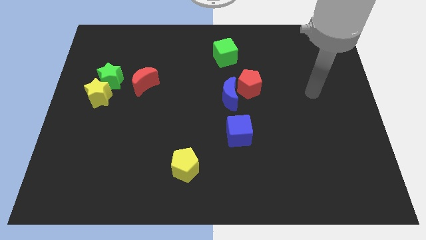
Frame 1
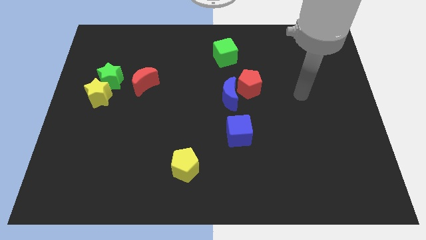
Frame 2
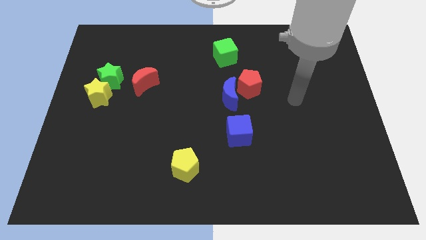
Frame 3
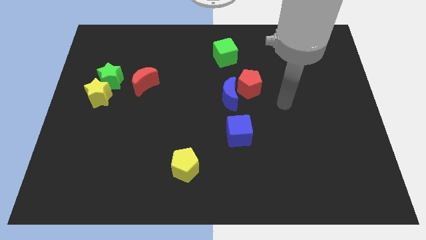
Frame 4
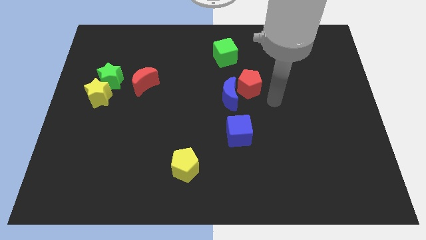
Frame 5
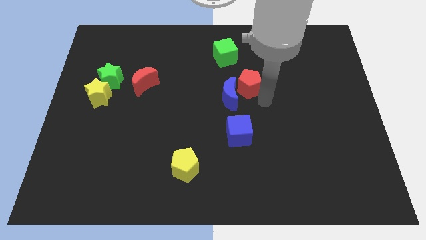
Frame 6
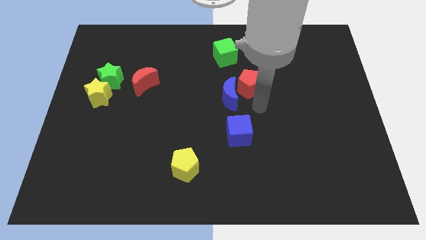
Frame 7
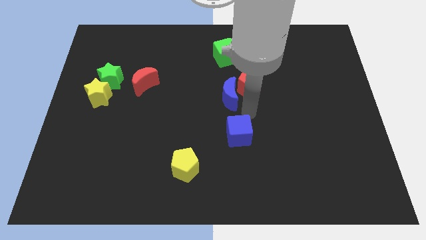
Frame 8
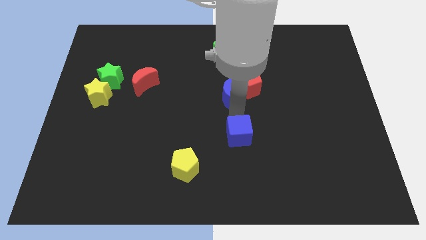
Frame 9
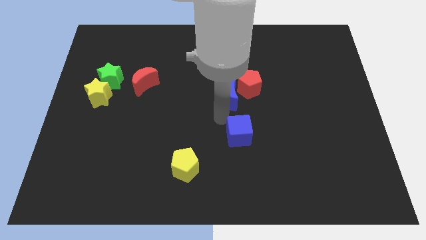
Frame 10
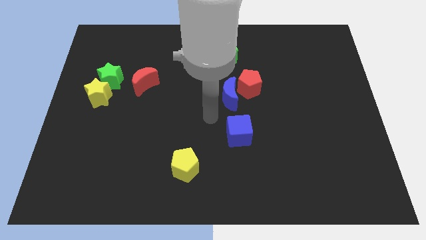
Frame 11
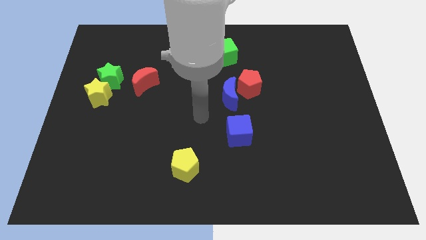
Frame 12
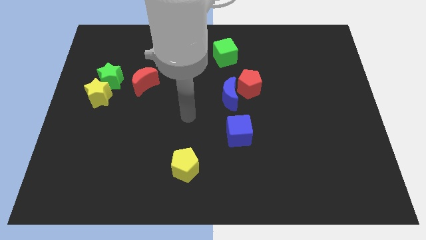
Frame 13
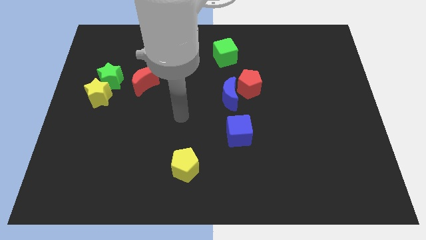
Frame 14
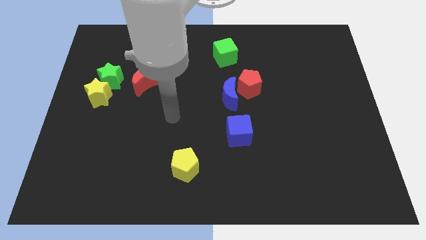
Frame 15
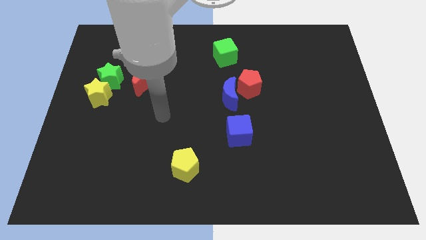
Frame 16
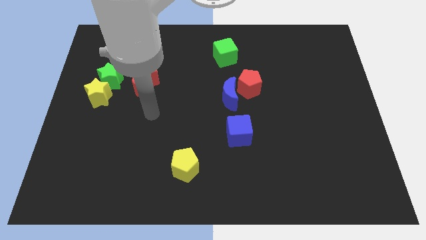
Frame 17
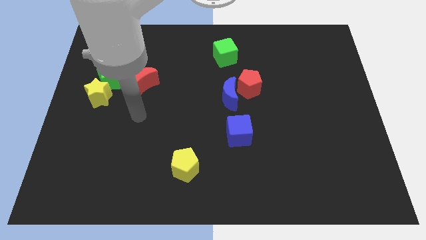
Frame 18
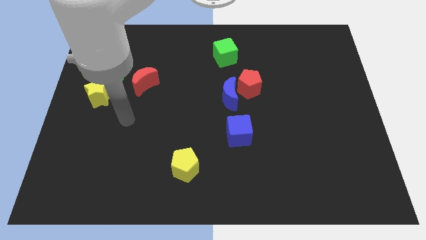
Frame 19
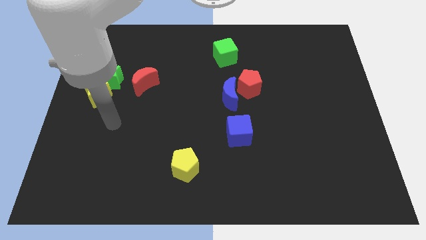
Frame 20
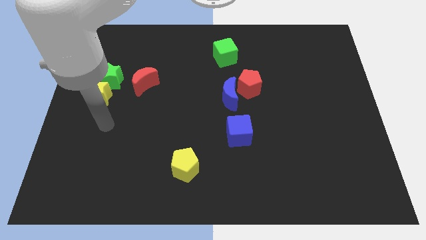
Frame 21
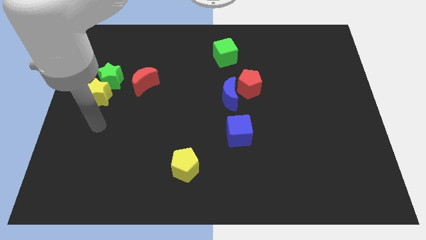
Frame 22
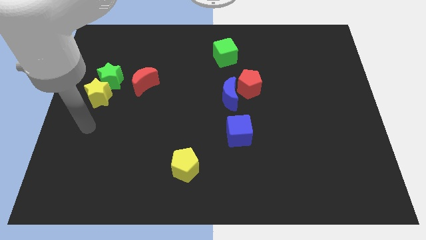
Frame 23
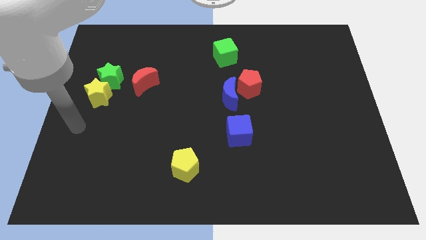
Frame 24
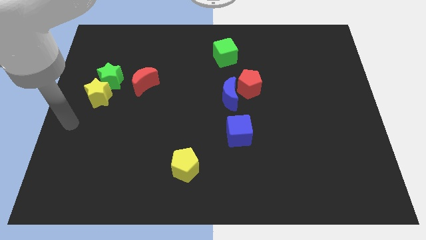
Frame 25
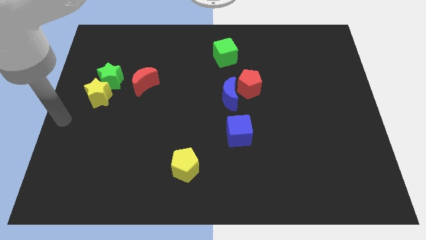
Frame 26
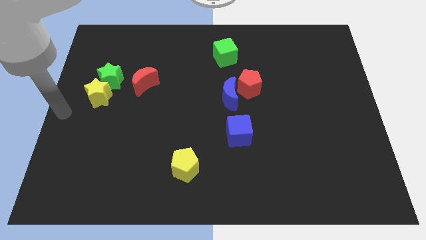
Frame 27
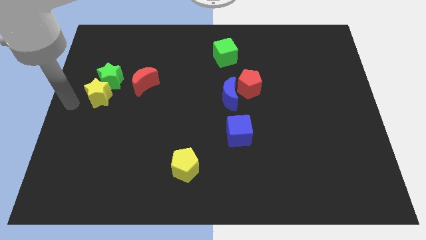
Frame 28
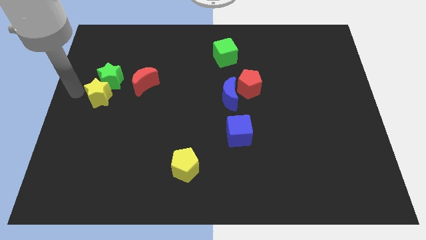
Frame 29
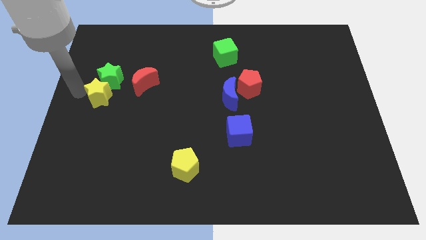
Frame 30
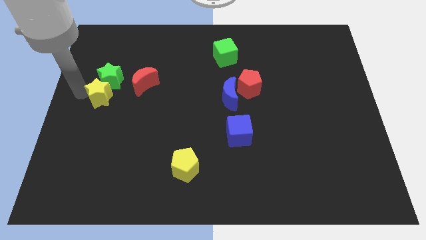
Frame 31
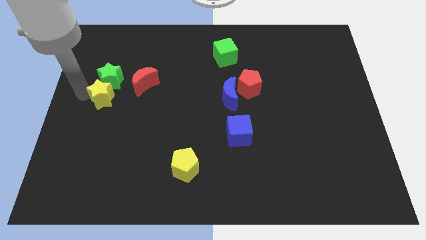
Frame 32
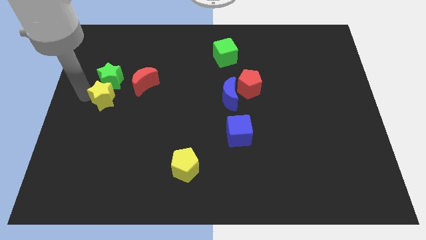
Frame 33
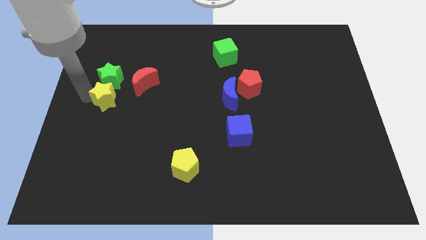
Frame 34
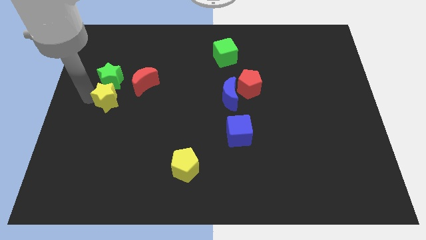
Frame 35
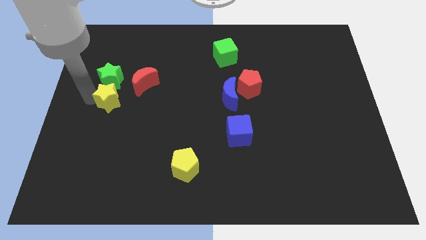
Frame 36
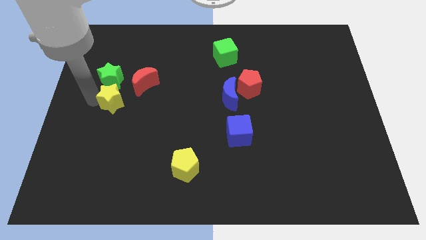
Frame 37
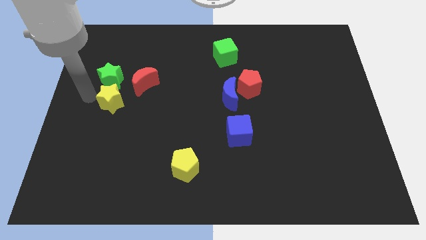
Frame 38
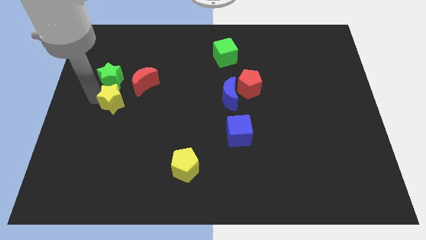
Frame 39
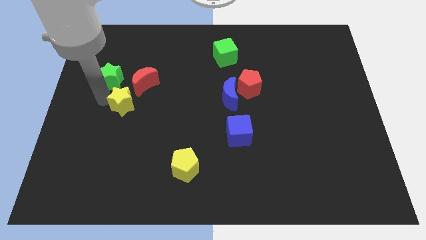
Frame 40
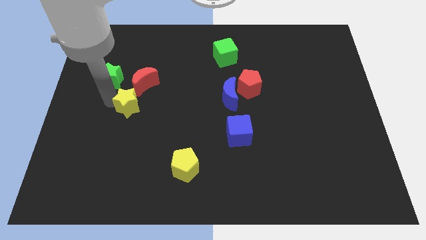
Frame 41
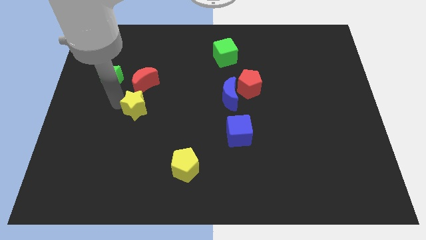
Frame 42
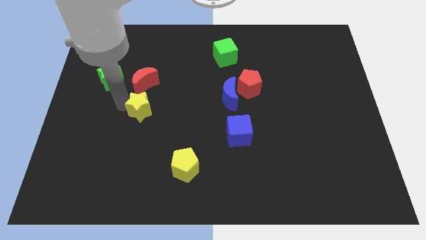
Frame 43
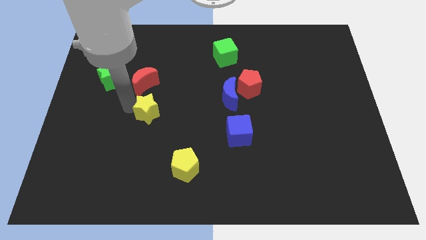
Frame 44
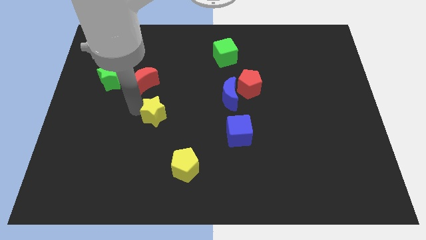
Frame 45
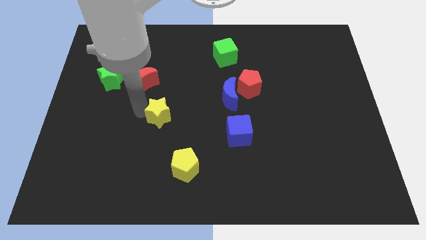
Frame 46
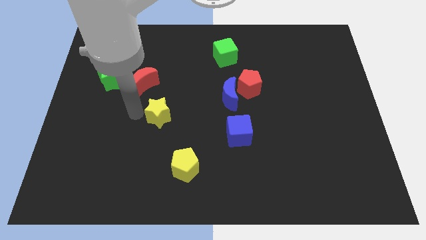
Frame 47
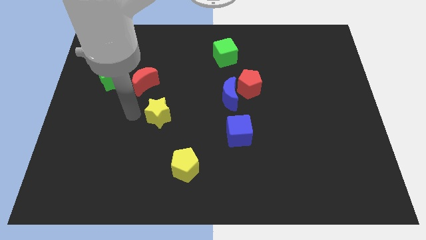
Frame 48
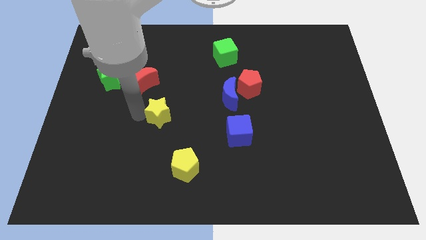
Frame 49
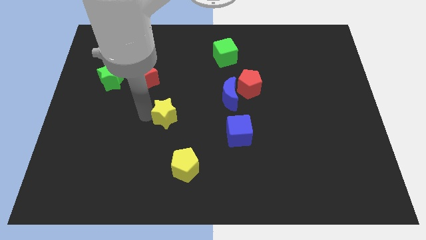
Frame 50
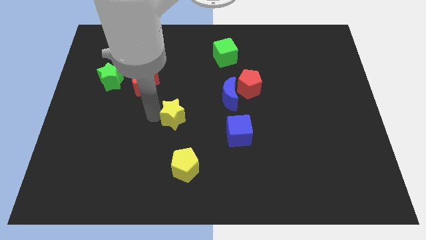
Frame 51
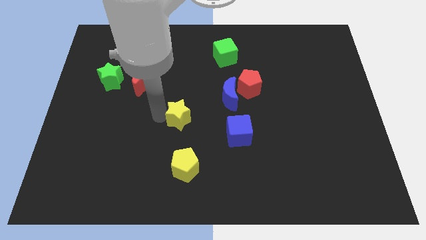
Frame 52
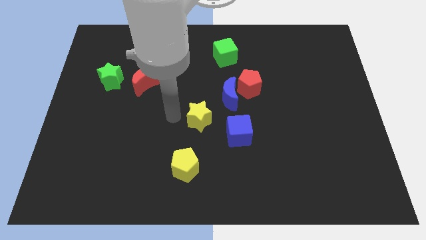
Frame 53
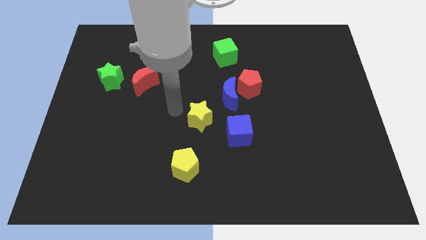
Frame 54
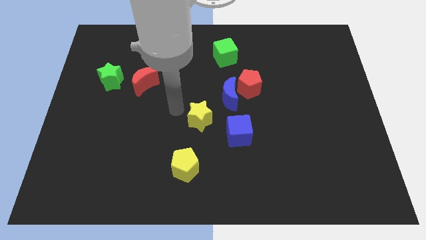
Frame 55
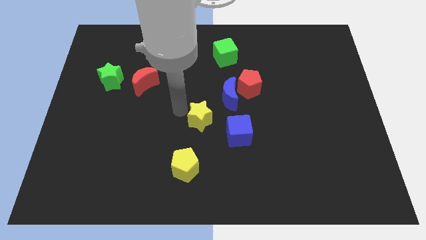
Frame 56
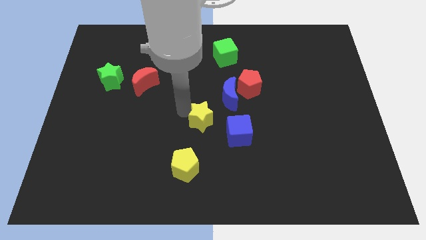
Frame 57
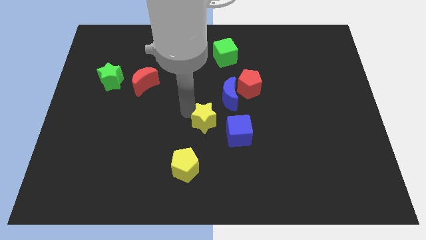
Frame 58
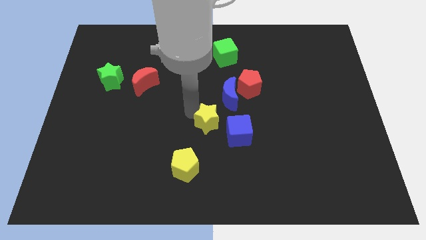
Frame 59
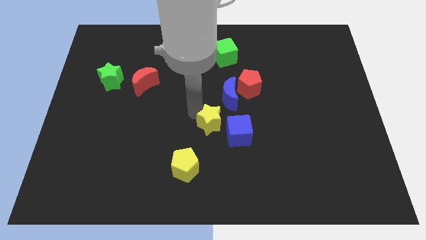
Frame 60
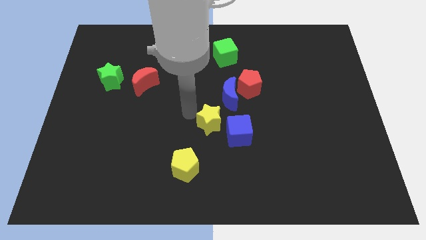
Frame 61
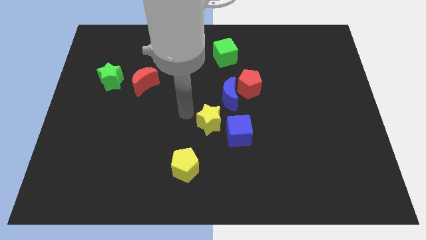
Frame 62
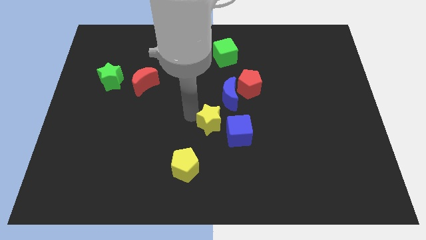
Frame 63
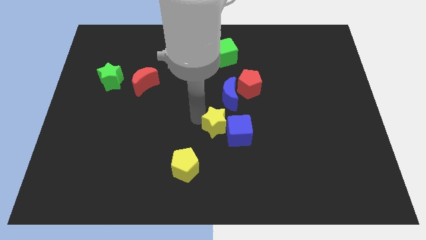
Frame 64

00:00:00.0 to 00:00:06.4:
move the yellow star to the blue cube

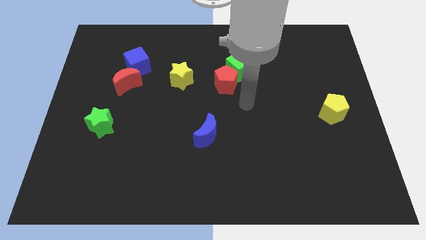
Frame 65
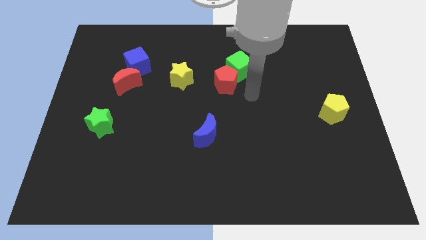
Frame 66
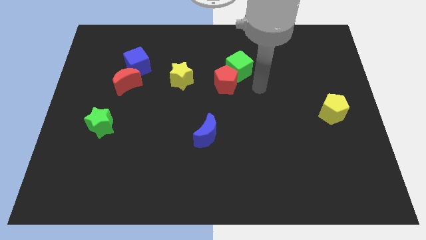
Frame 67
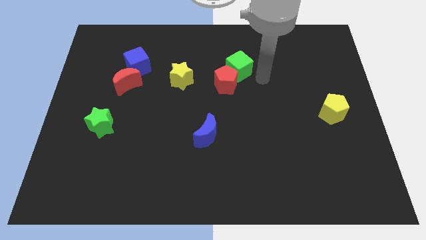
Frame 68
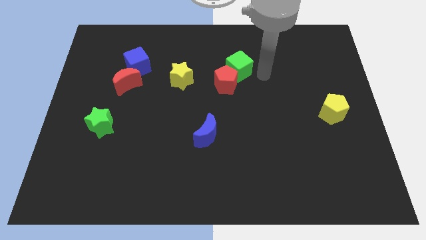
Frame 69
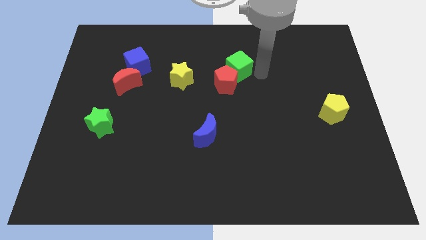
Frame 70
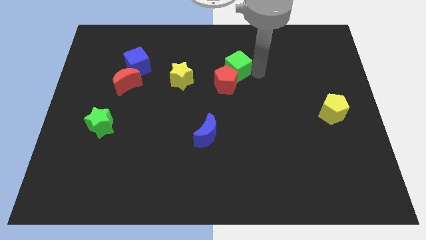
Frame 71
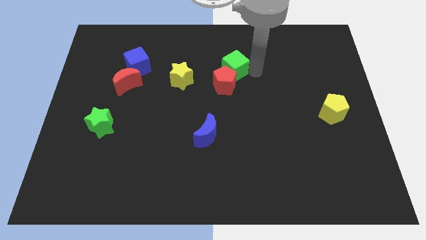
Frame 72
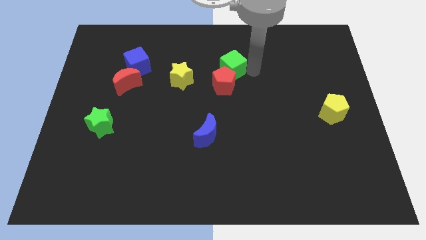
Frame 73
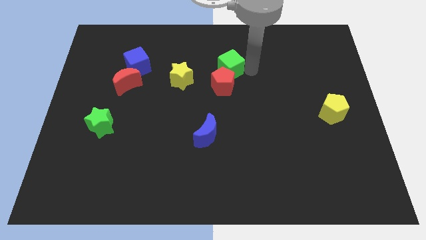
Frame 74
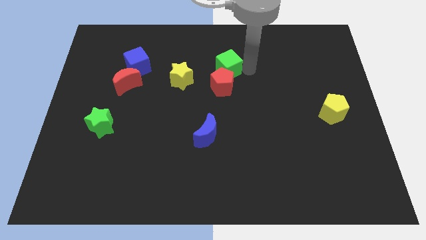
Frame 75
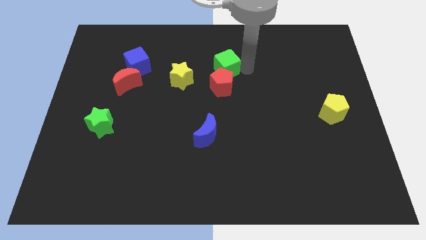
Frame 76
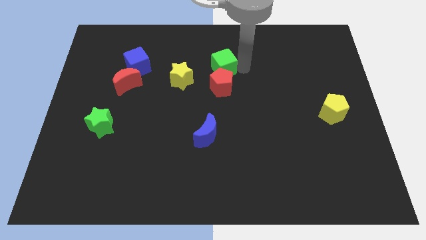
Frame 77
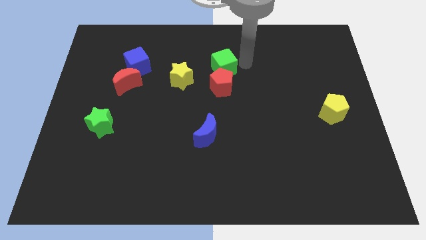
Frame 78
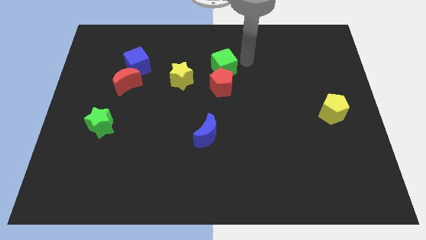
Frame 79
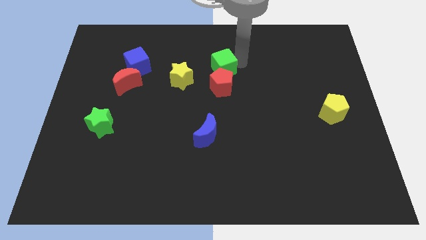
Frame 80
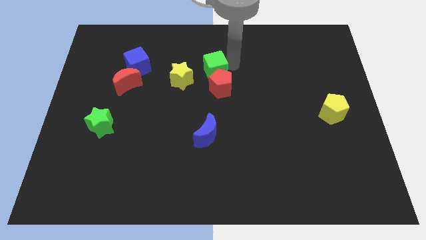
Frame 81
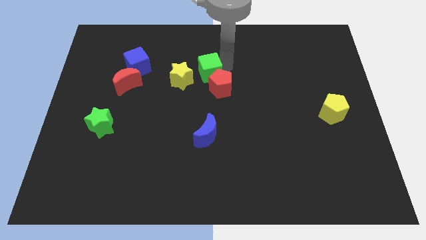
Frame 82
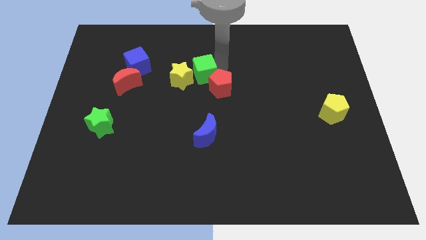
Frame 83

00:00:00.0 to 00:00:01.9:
slide the green cube next to the yellow star

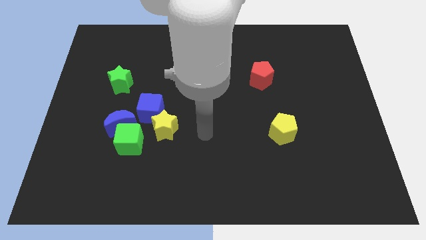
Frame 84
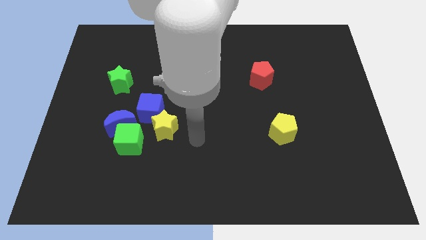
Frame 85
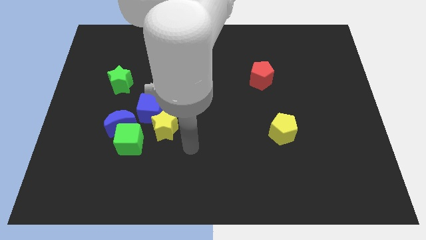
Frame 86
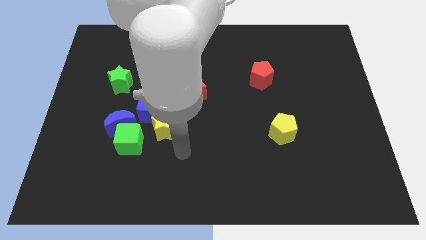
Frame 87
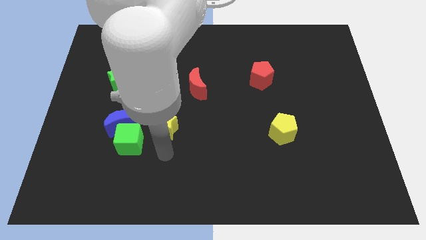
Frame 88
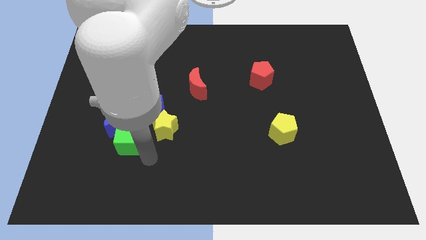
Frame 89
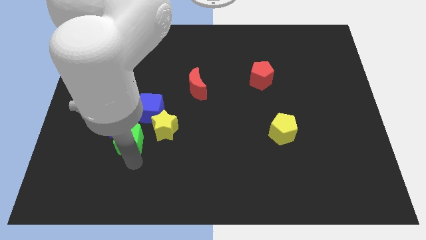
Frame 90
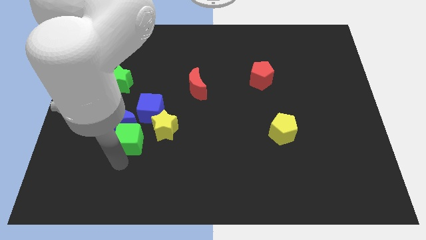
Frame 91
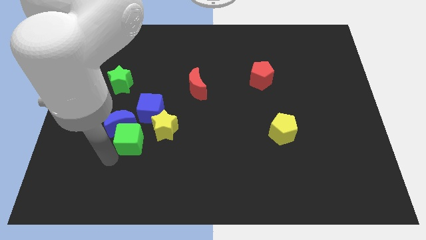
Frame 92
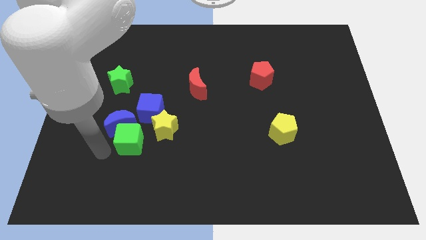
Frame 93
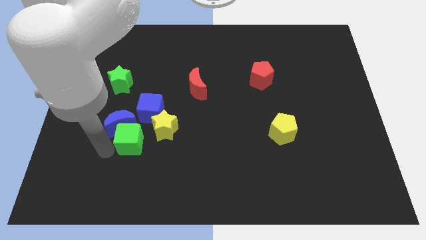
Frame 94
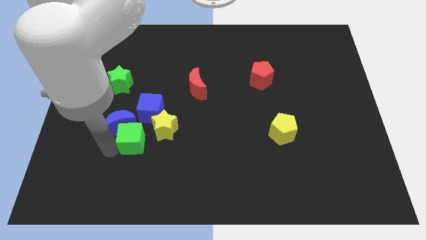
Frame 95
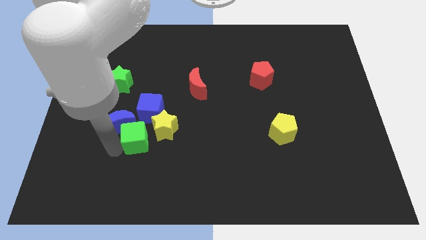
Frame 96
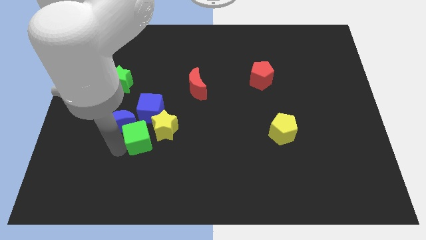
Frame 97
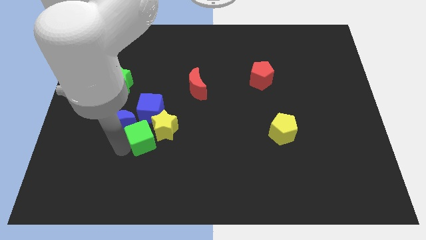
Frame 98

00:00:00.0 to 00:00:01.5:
move the green cube next to the yellow star
